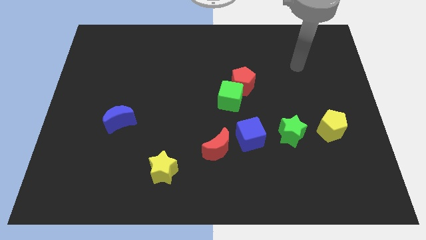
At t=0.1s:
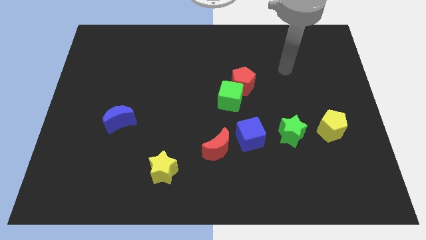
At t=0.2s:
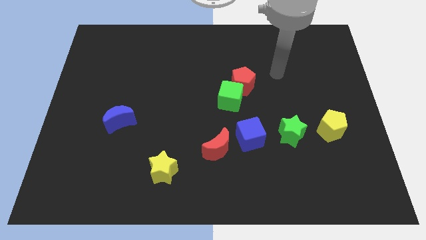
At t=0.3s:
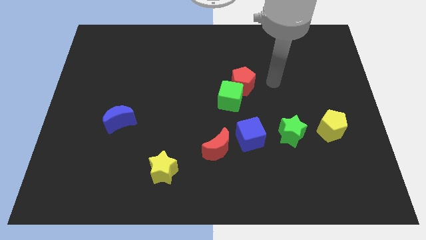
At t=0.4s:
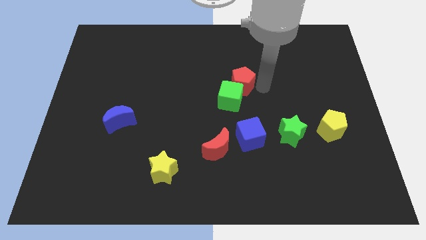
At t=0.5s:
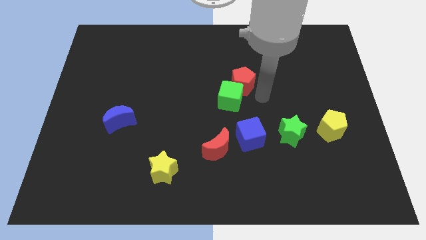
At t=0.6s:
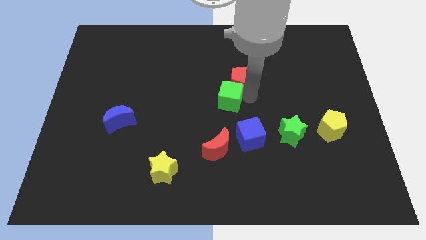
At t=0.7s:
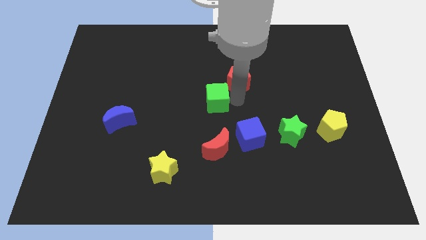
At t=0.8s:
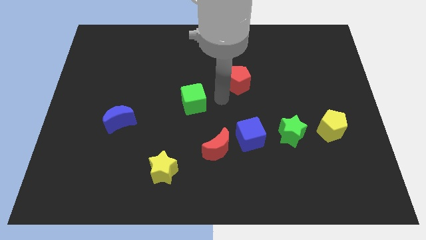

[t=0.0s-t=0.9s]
move the red pentagon away from the green cube

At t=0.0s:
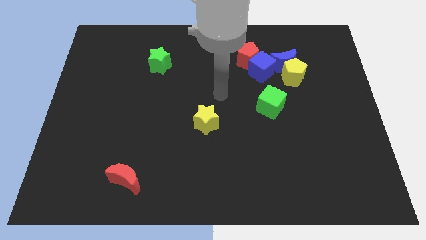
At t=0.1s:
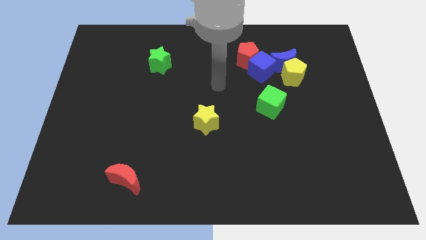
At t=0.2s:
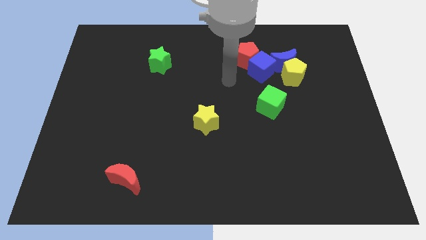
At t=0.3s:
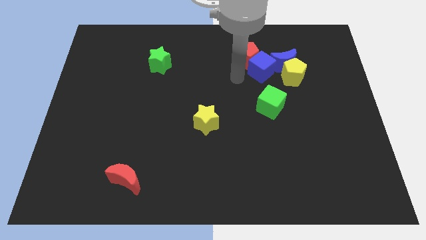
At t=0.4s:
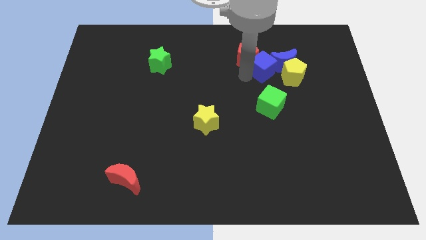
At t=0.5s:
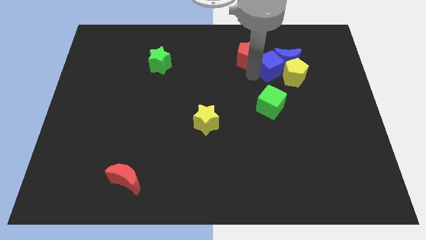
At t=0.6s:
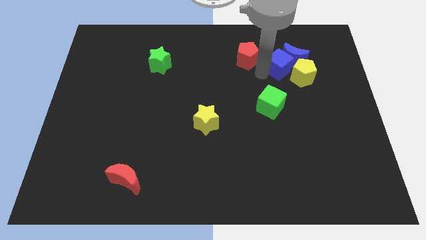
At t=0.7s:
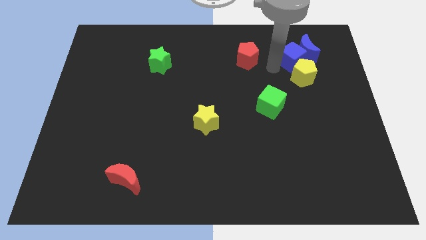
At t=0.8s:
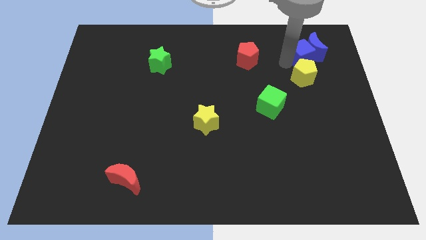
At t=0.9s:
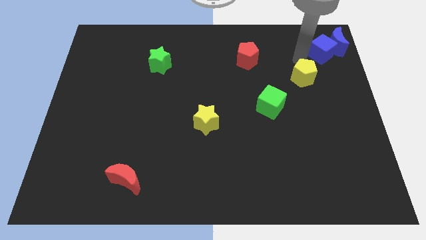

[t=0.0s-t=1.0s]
pull the yellow pentagon apart from the blue moon and blue cube

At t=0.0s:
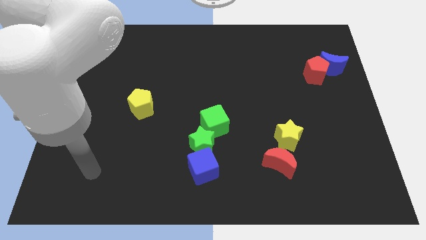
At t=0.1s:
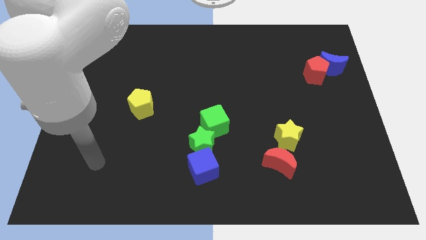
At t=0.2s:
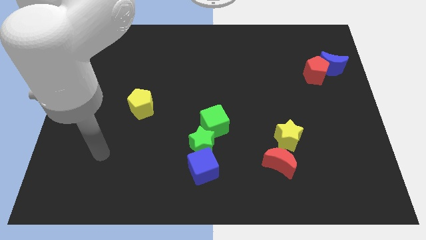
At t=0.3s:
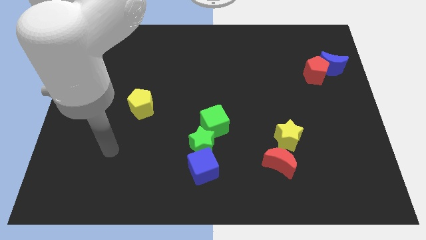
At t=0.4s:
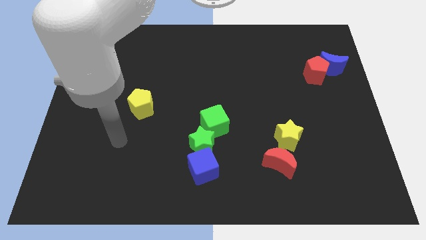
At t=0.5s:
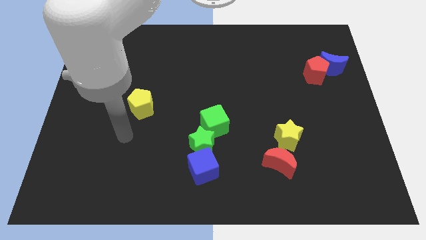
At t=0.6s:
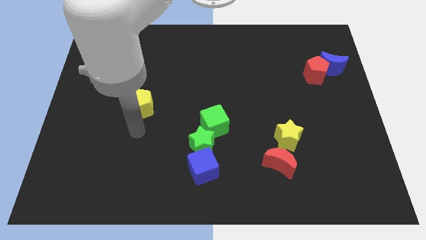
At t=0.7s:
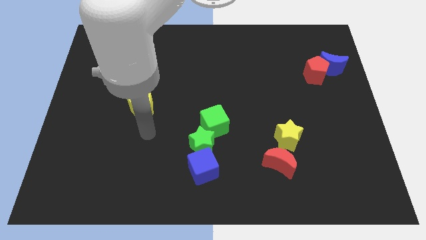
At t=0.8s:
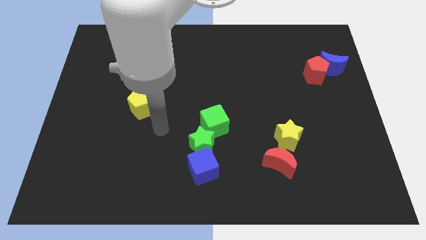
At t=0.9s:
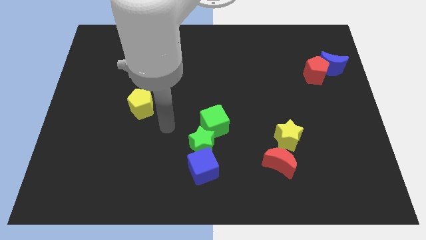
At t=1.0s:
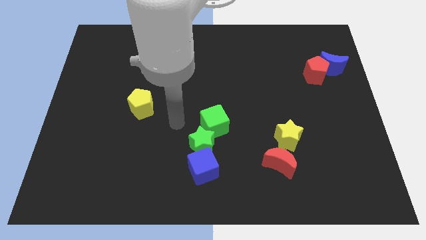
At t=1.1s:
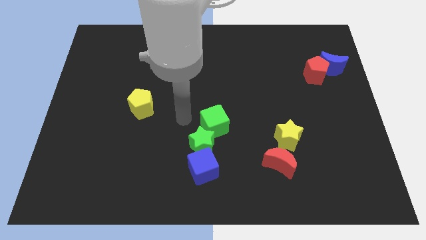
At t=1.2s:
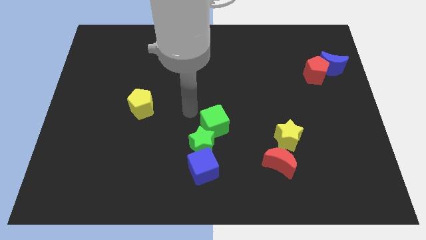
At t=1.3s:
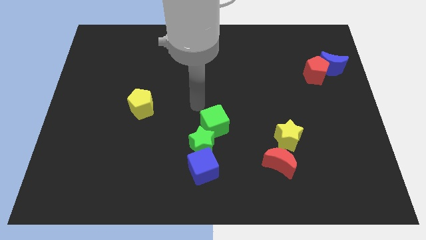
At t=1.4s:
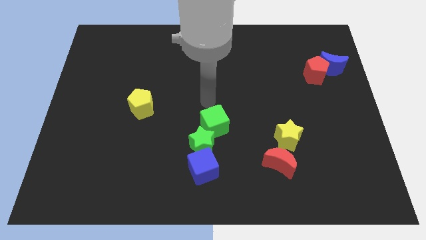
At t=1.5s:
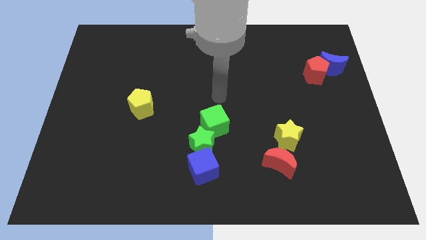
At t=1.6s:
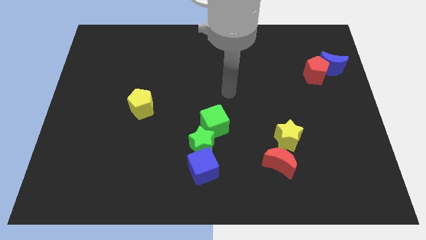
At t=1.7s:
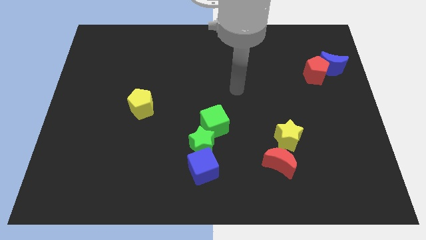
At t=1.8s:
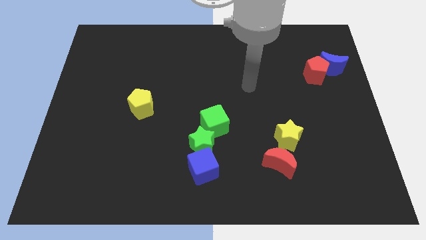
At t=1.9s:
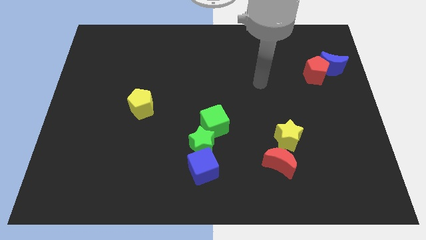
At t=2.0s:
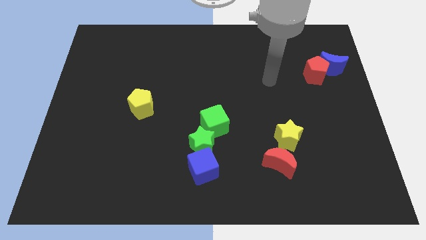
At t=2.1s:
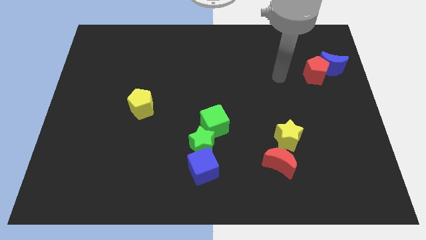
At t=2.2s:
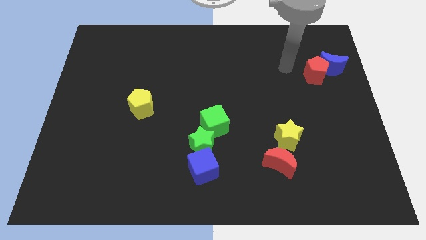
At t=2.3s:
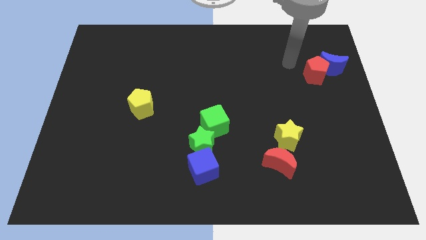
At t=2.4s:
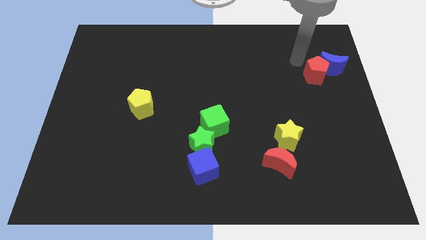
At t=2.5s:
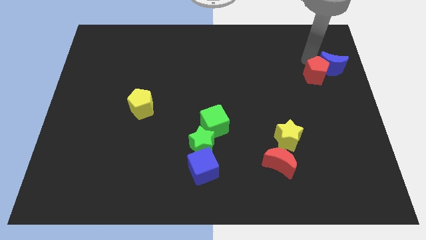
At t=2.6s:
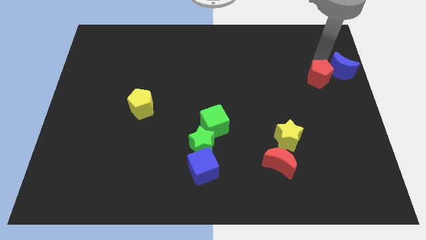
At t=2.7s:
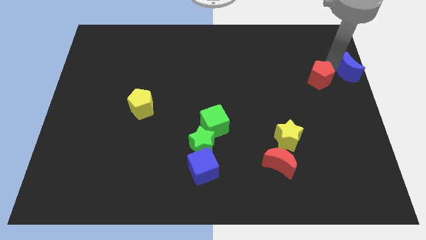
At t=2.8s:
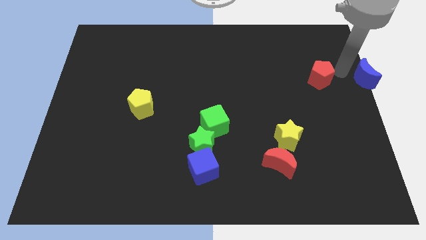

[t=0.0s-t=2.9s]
move the red pentagon away from the blue moon

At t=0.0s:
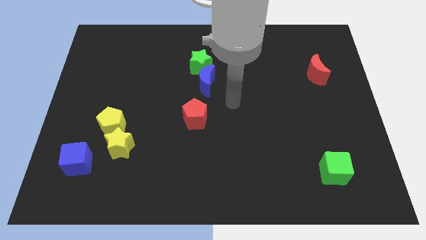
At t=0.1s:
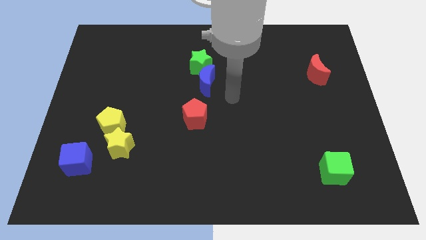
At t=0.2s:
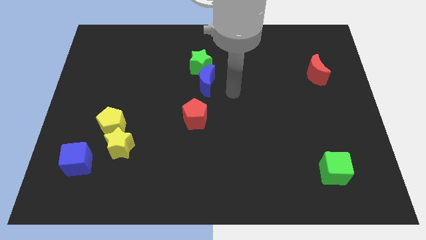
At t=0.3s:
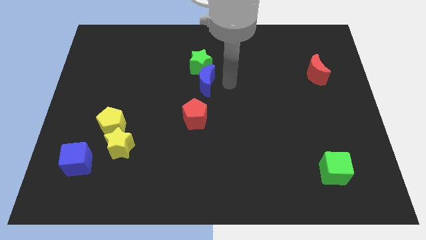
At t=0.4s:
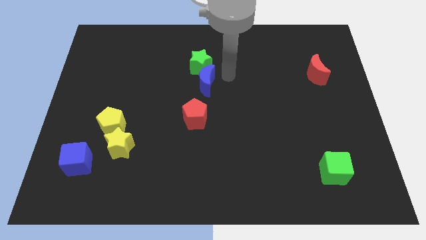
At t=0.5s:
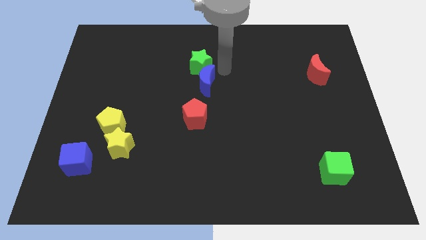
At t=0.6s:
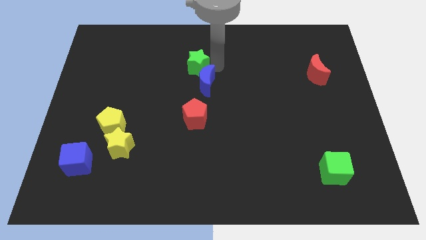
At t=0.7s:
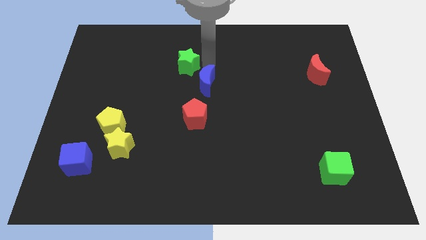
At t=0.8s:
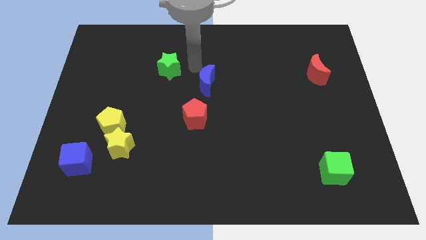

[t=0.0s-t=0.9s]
separate the blue moon from the green star

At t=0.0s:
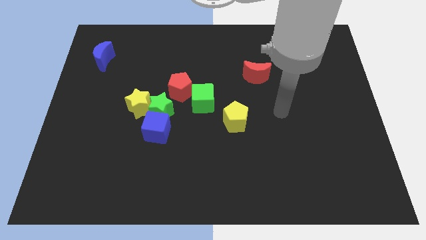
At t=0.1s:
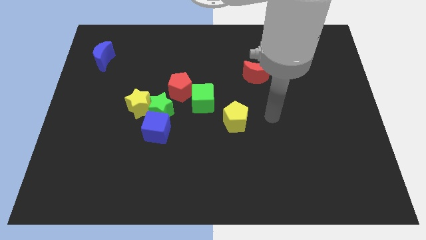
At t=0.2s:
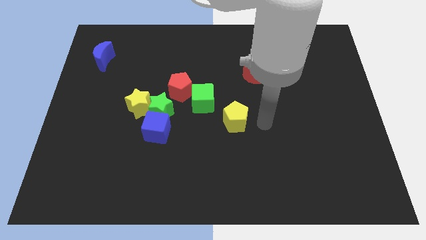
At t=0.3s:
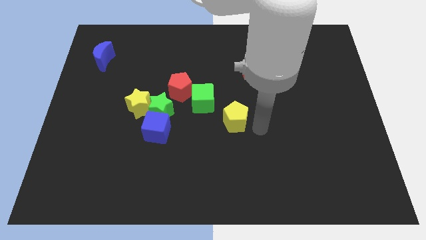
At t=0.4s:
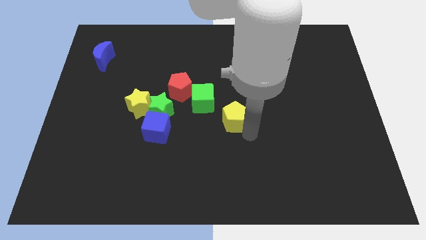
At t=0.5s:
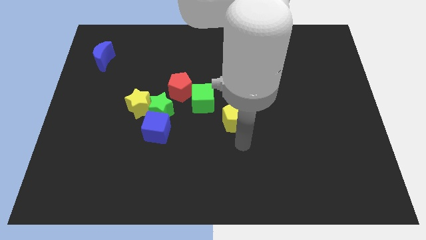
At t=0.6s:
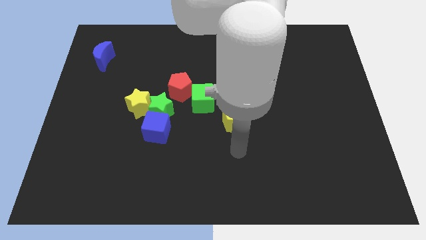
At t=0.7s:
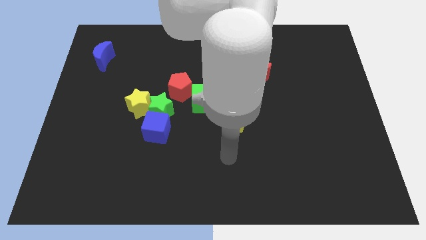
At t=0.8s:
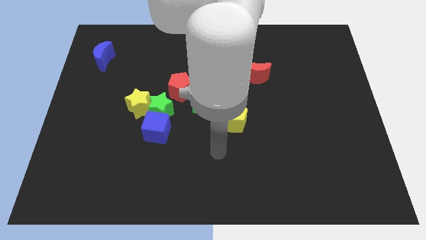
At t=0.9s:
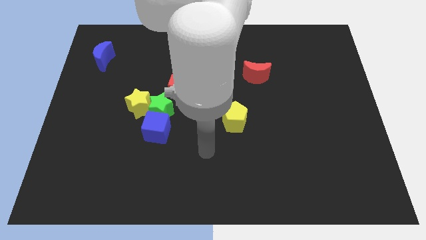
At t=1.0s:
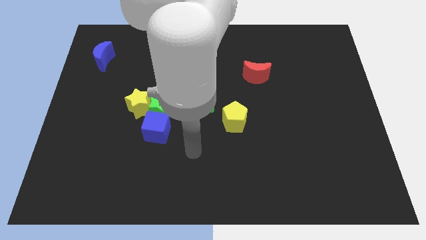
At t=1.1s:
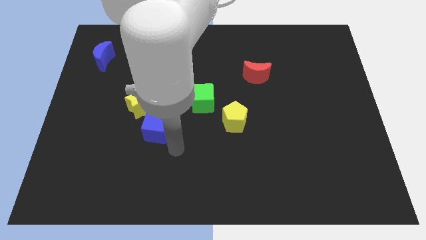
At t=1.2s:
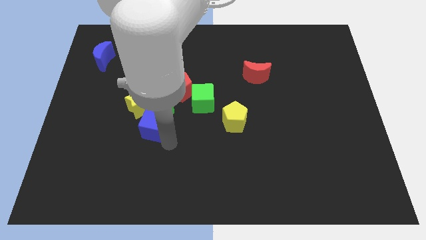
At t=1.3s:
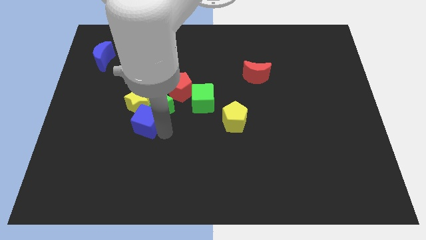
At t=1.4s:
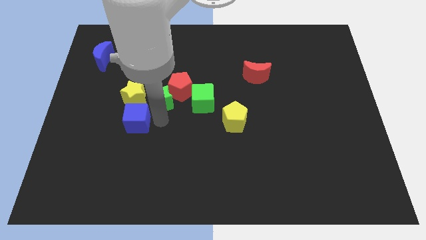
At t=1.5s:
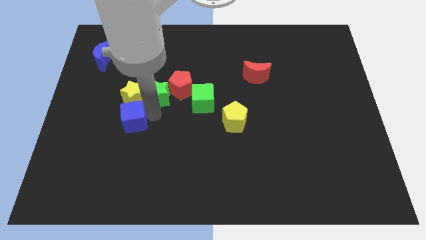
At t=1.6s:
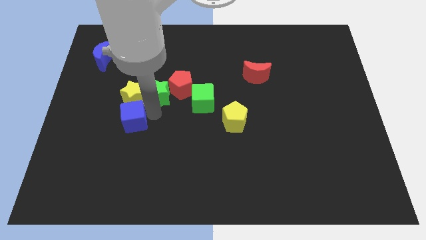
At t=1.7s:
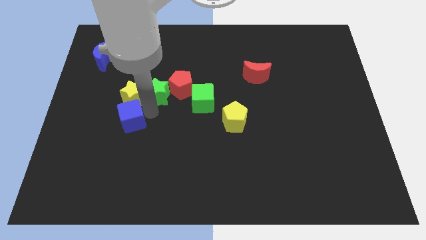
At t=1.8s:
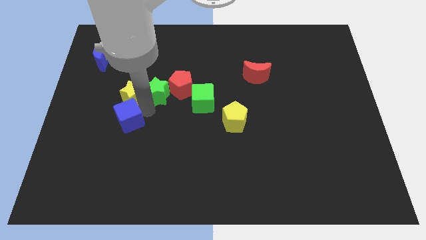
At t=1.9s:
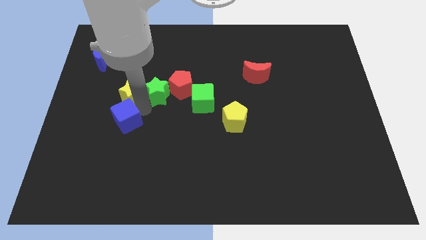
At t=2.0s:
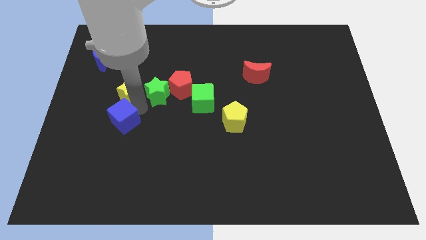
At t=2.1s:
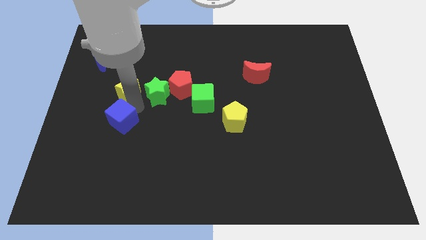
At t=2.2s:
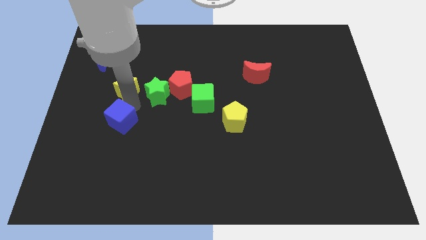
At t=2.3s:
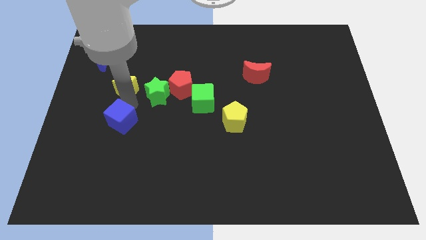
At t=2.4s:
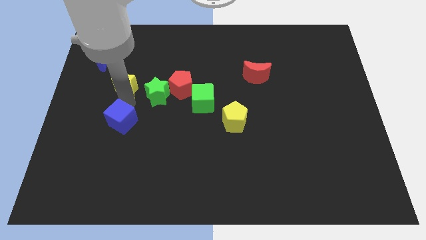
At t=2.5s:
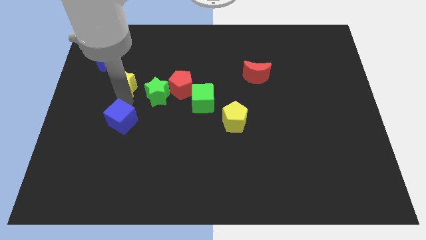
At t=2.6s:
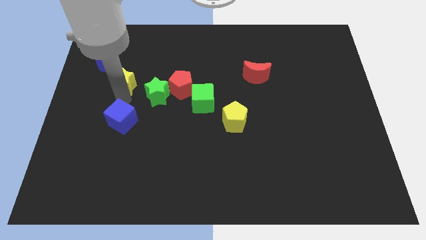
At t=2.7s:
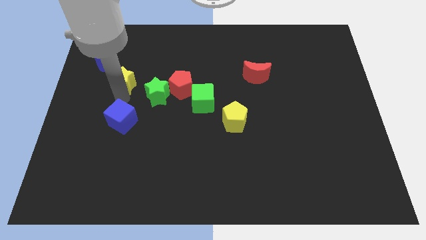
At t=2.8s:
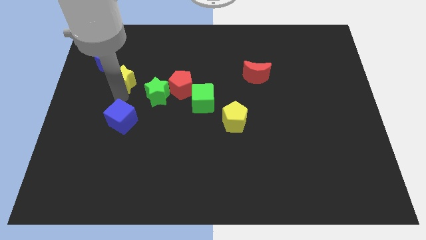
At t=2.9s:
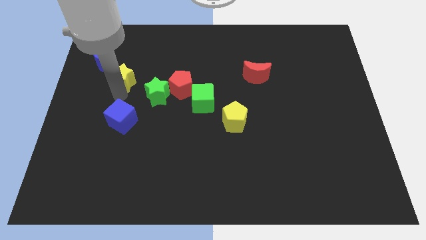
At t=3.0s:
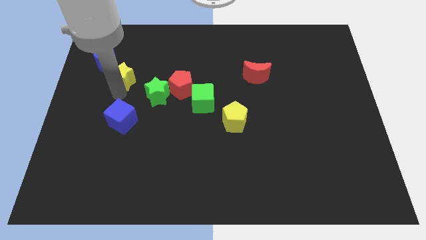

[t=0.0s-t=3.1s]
pull the yellow star apart from the green star and blue cube

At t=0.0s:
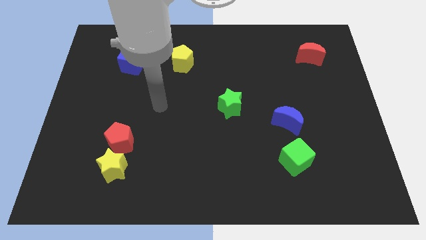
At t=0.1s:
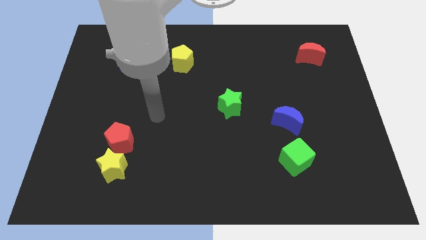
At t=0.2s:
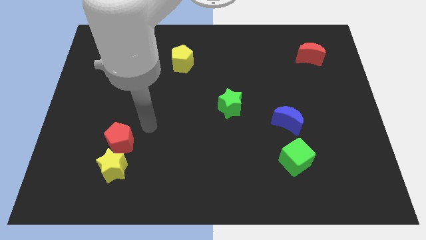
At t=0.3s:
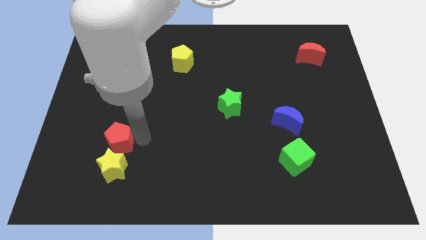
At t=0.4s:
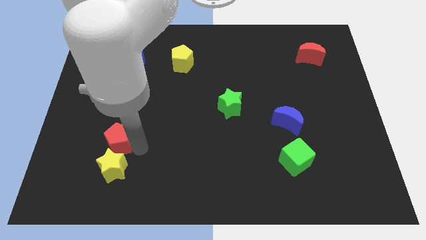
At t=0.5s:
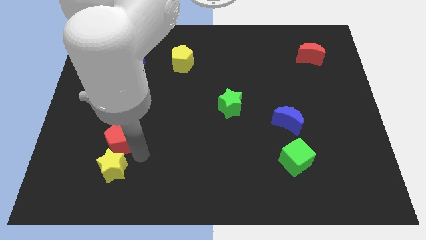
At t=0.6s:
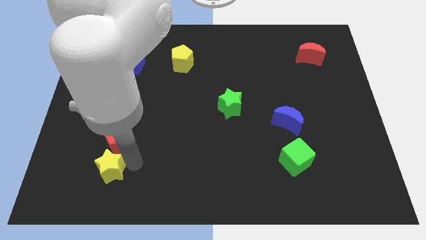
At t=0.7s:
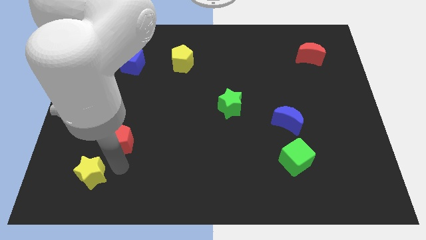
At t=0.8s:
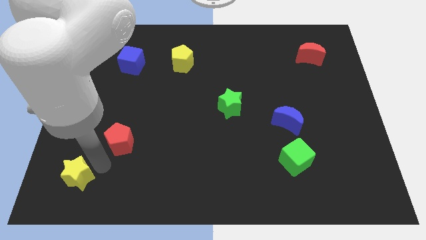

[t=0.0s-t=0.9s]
move the red pentagon away from the yellow star
